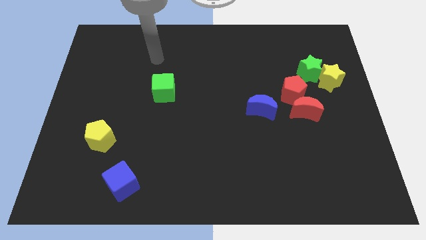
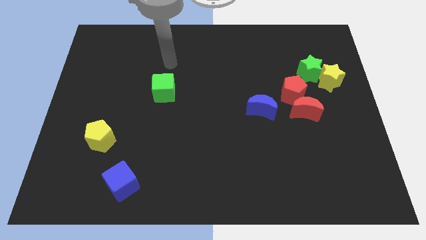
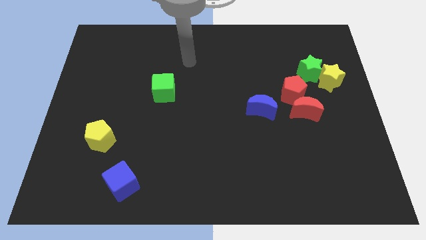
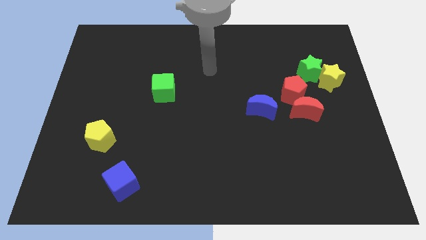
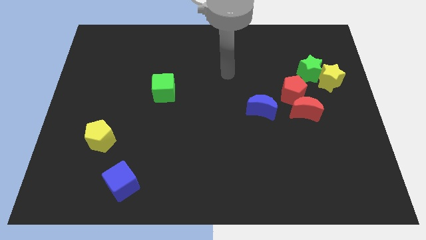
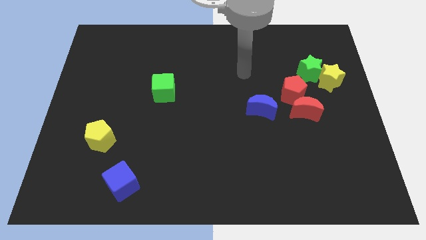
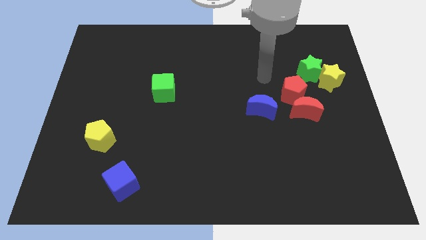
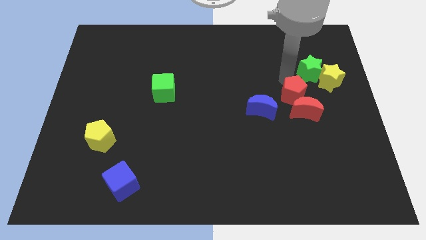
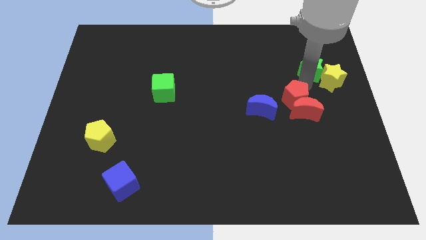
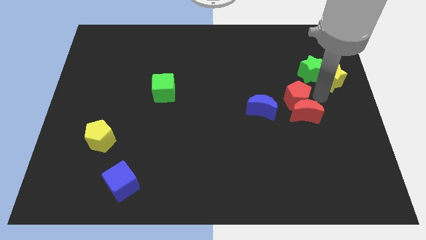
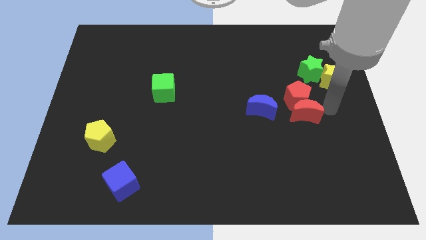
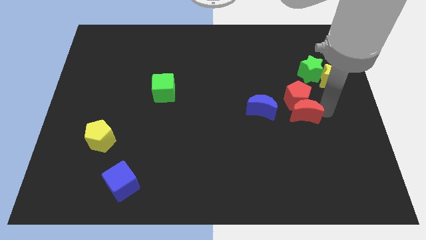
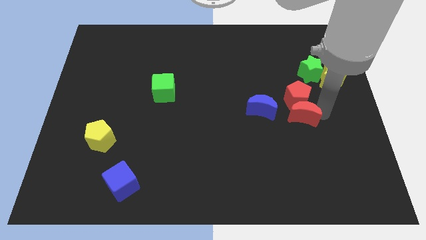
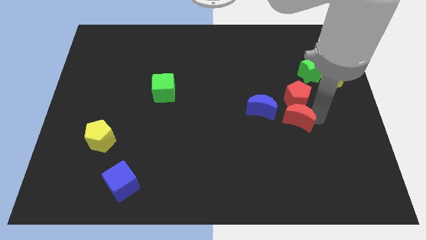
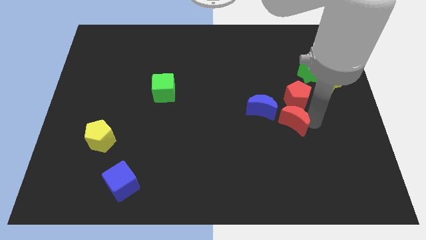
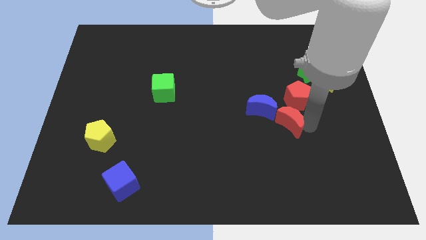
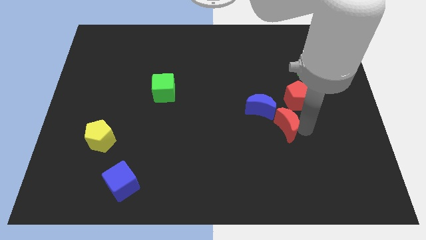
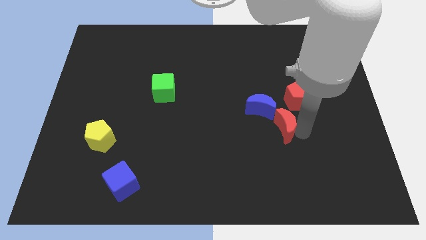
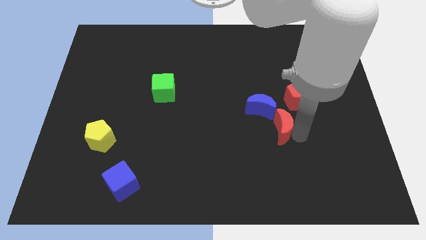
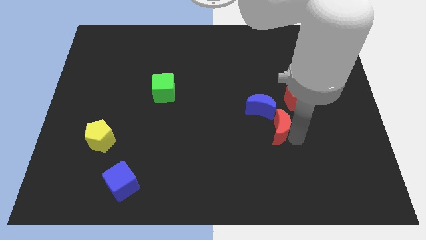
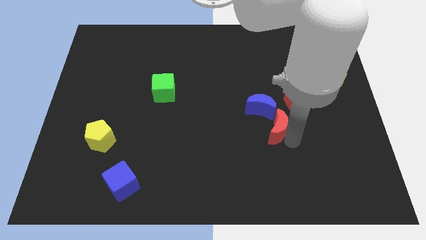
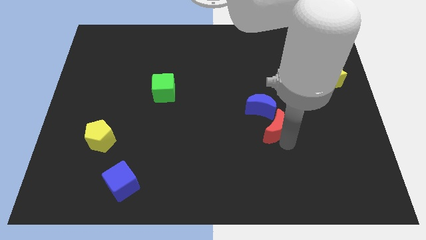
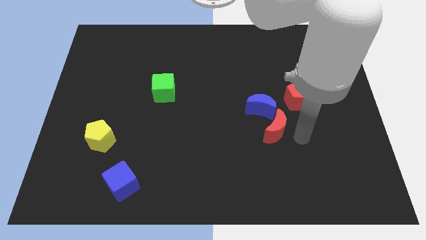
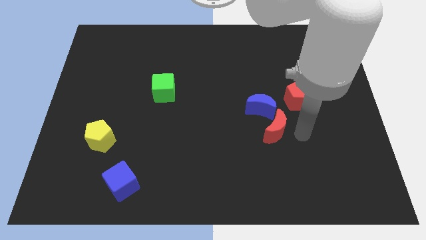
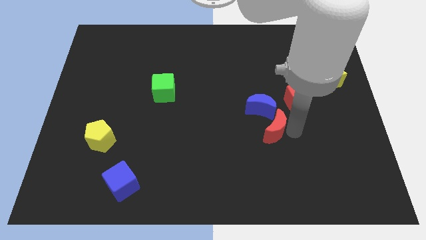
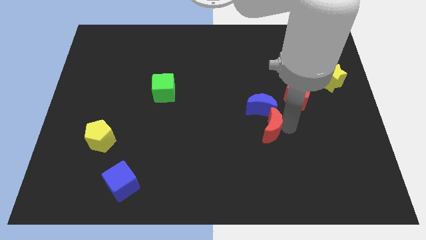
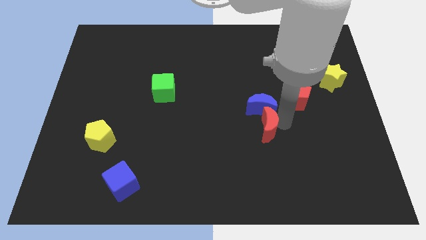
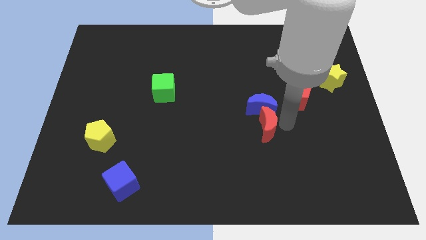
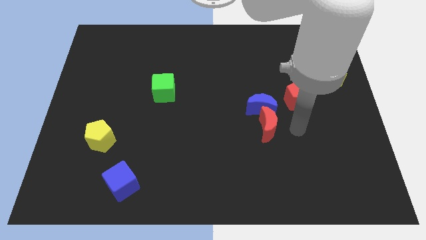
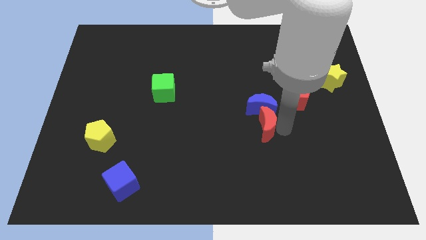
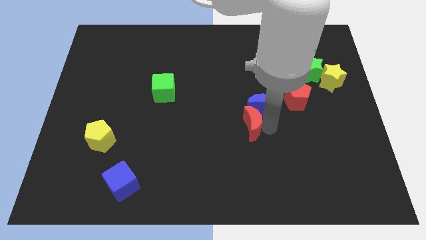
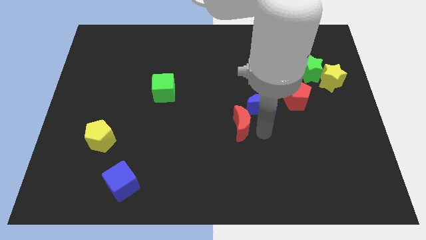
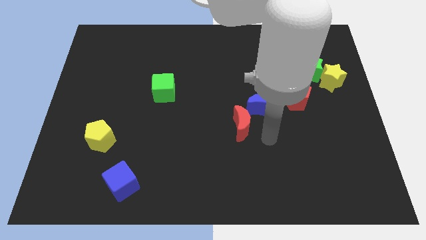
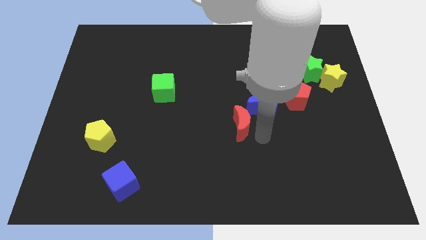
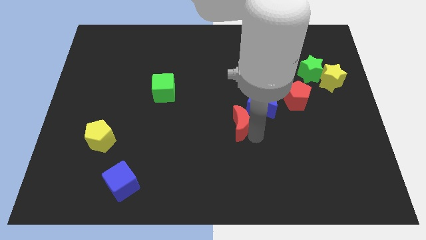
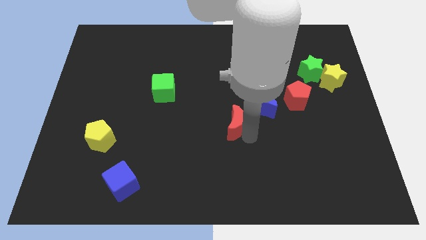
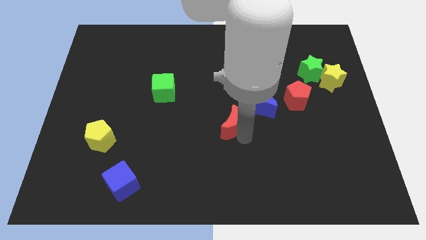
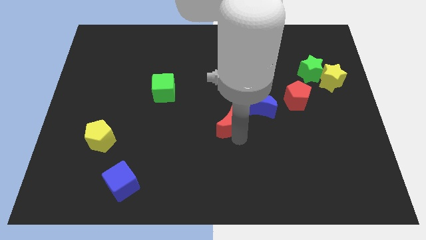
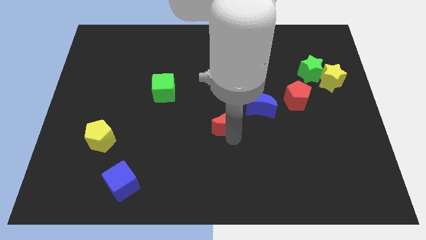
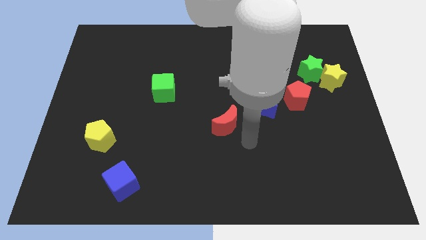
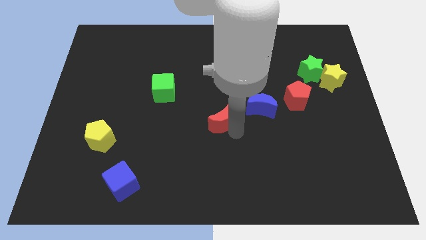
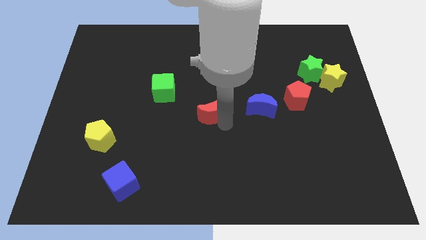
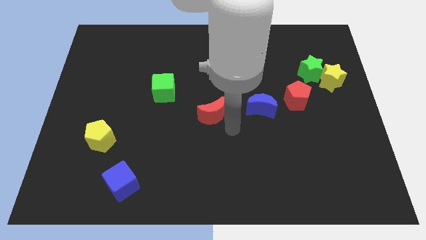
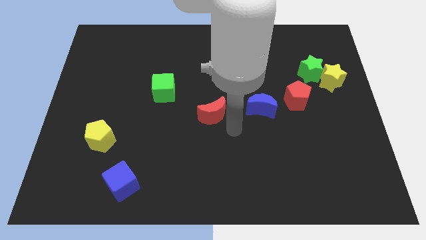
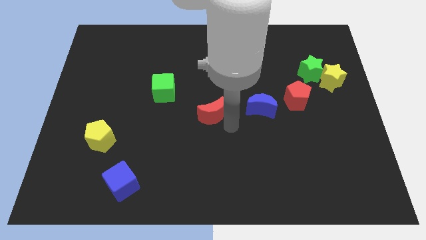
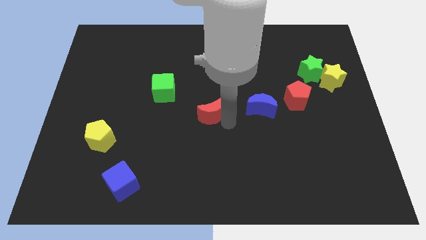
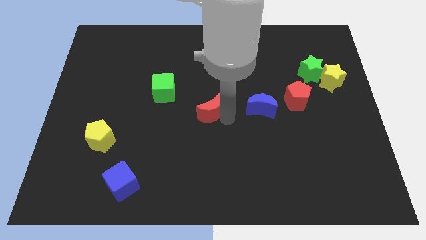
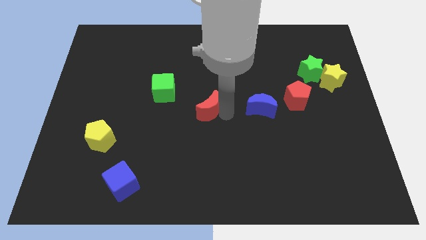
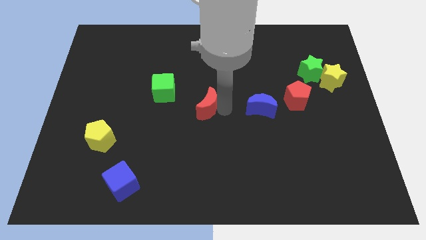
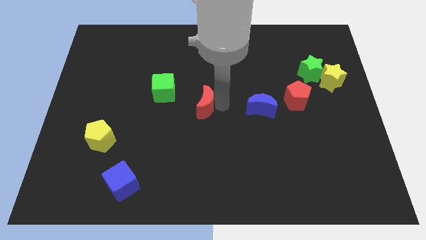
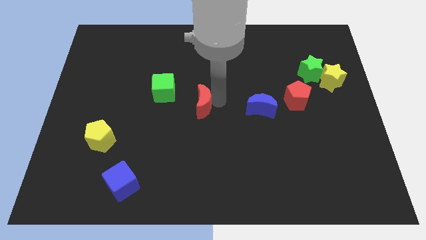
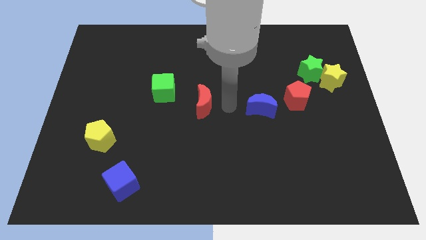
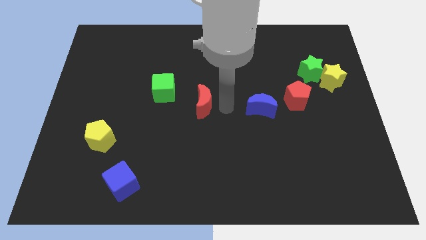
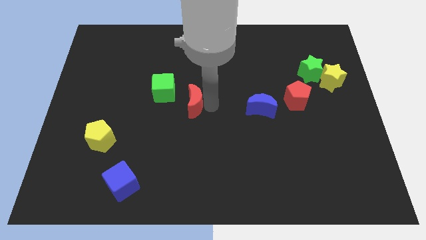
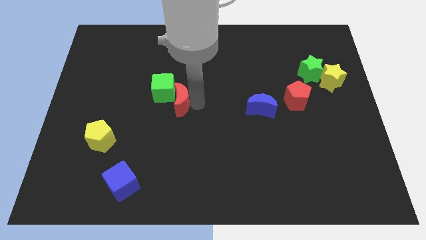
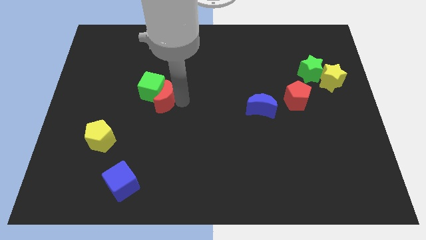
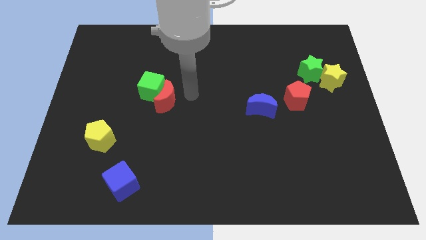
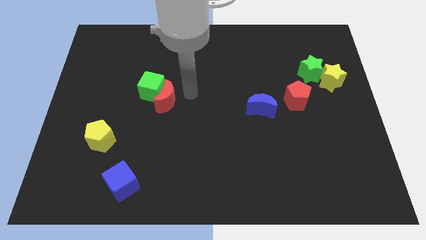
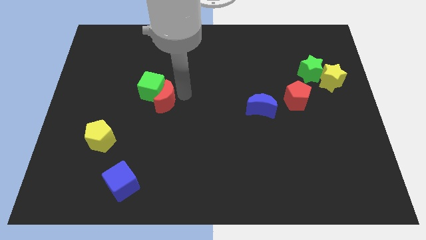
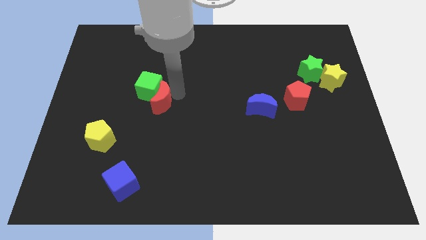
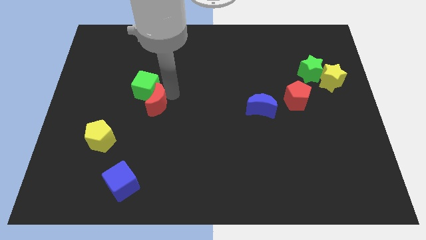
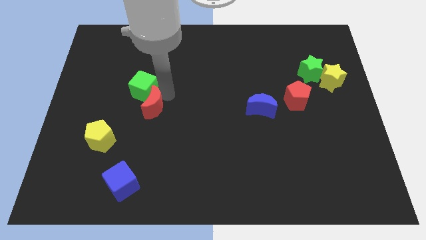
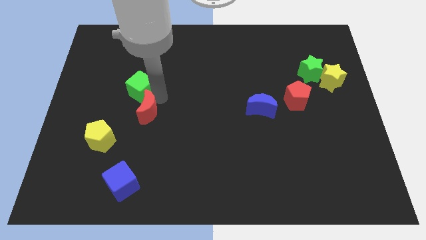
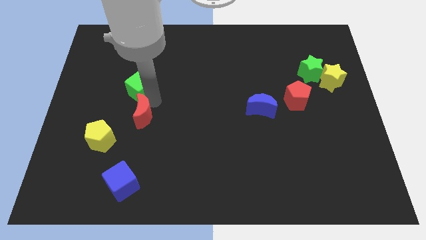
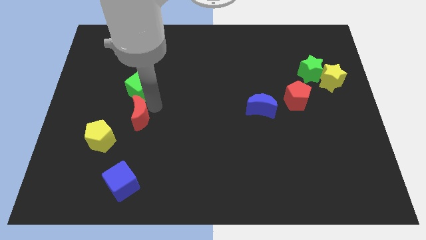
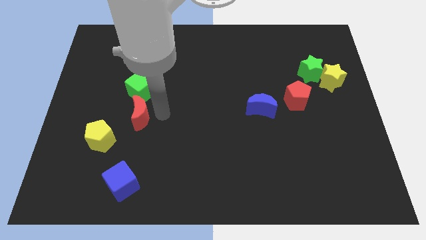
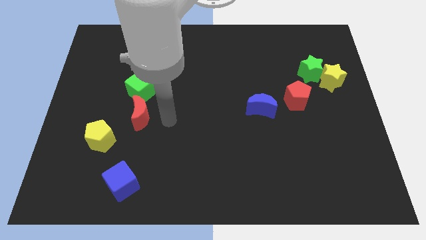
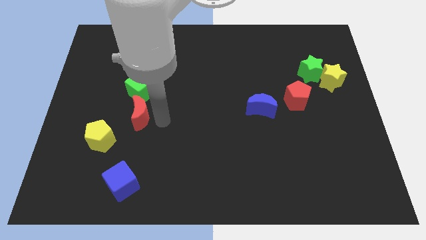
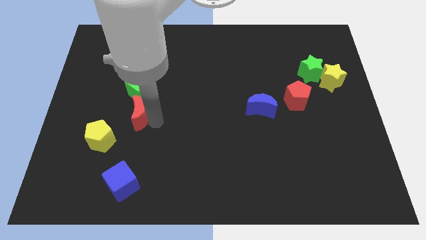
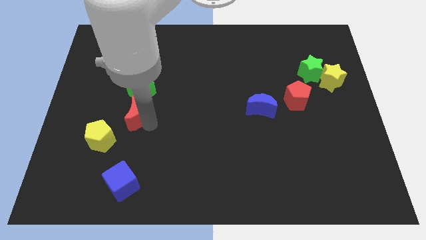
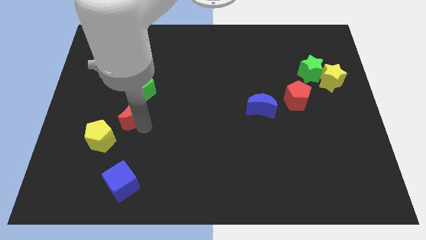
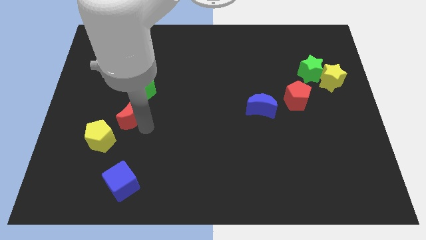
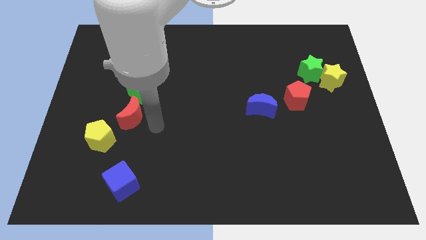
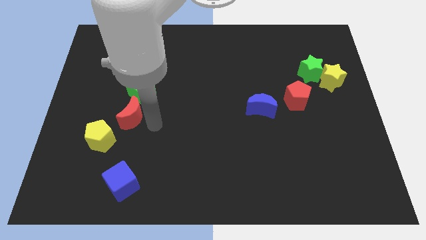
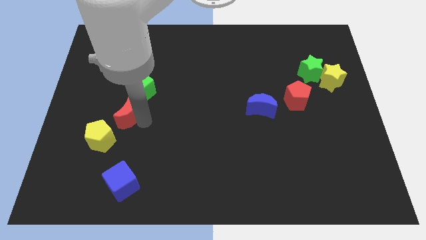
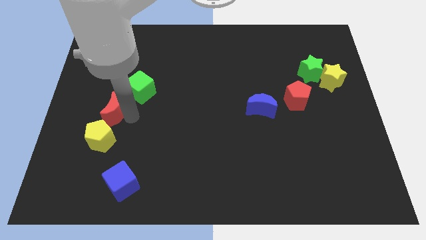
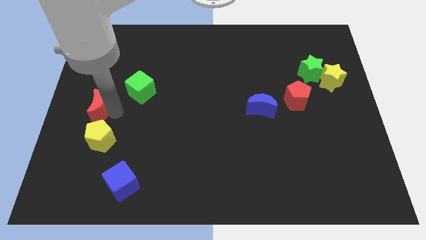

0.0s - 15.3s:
move the red moon to the left side of the board
